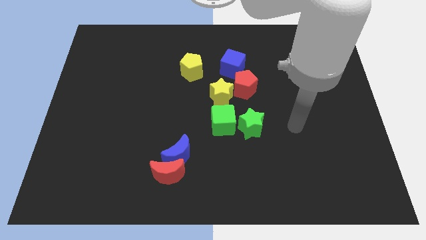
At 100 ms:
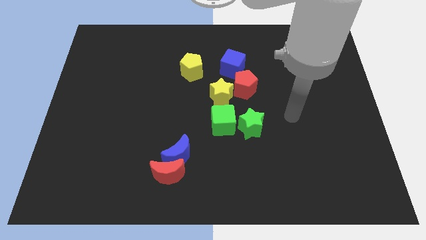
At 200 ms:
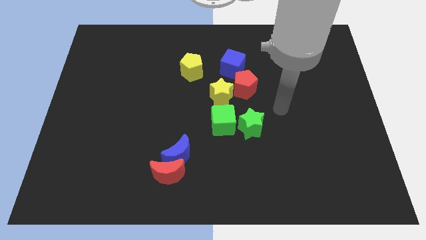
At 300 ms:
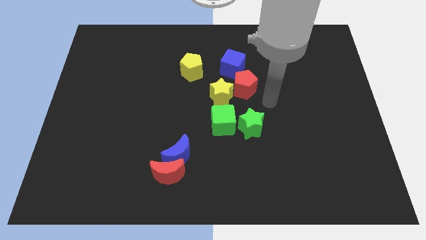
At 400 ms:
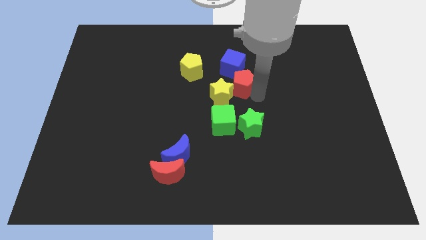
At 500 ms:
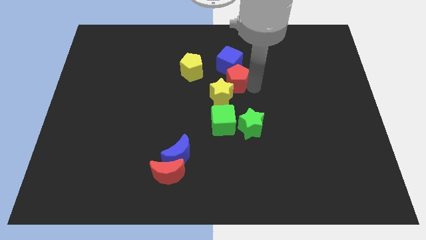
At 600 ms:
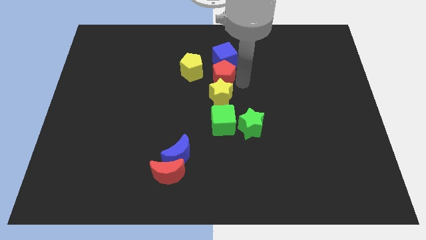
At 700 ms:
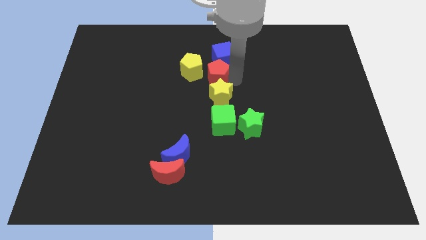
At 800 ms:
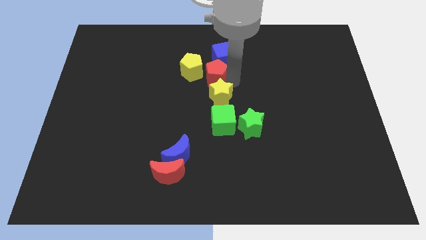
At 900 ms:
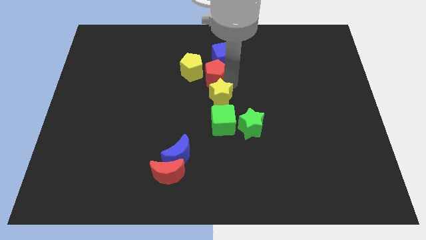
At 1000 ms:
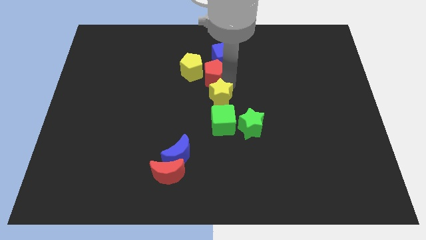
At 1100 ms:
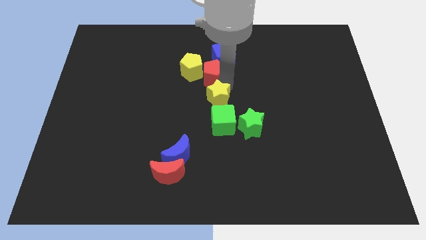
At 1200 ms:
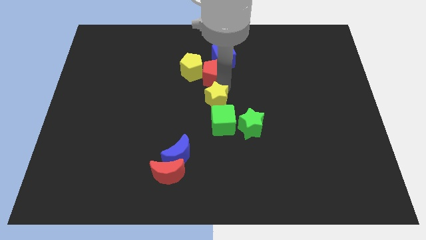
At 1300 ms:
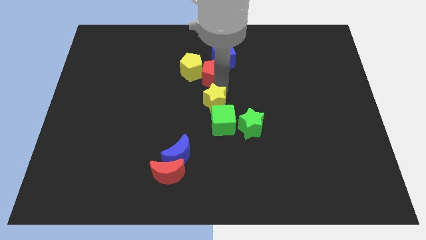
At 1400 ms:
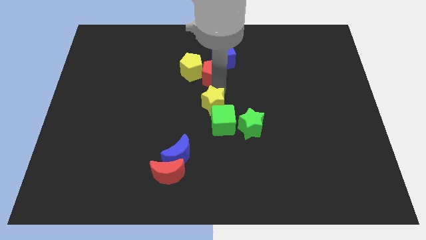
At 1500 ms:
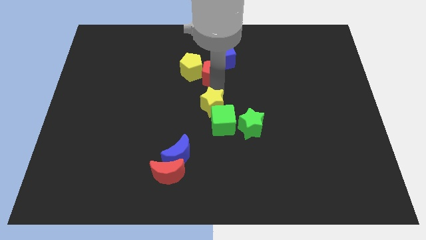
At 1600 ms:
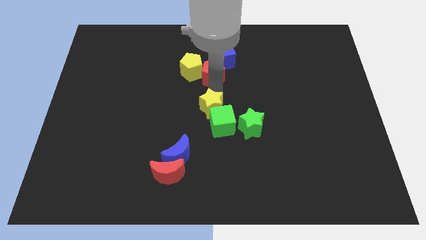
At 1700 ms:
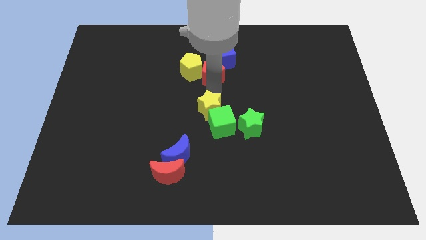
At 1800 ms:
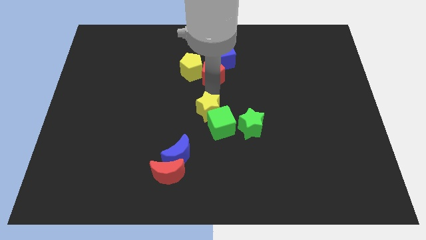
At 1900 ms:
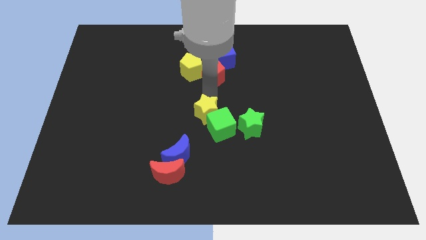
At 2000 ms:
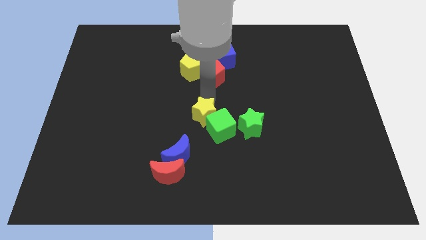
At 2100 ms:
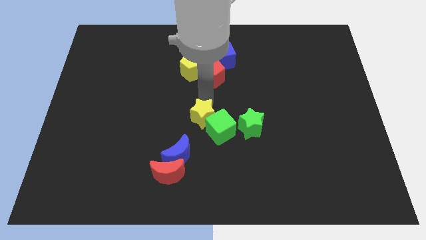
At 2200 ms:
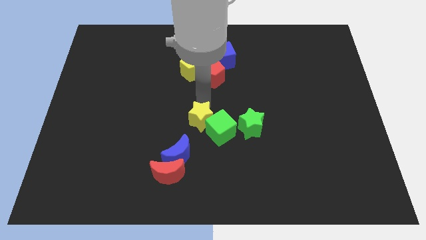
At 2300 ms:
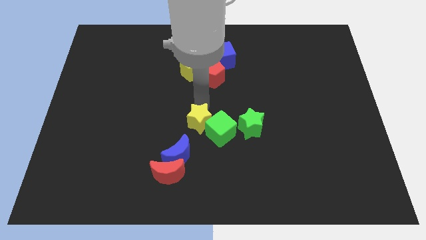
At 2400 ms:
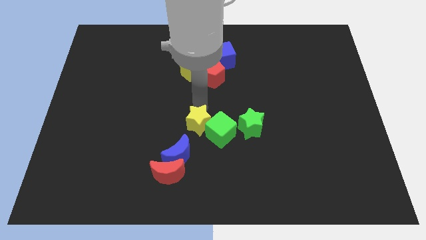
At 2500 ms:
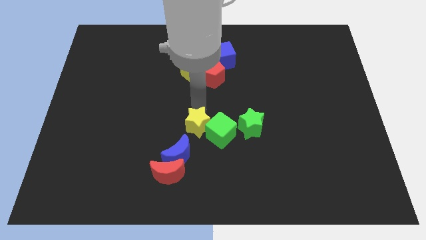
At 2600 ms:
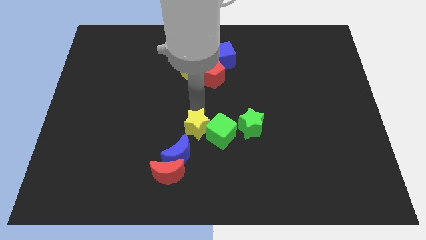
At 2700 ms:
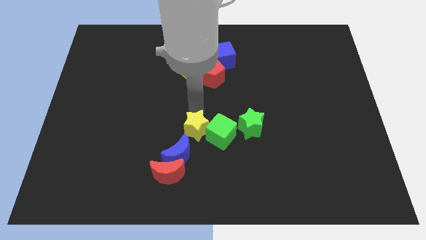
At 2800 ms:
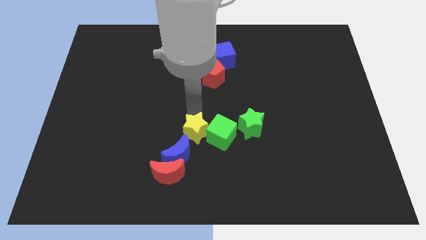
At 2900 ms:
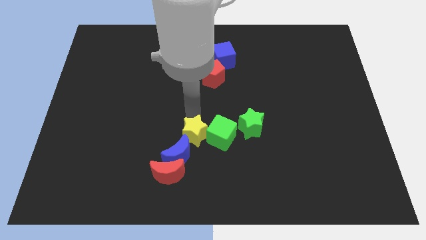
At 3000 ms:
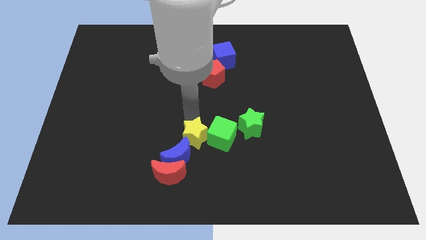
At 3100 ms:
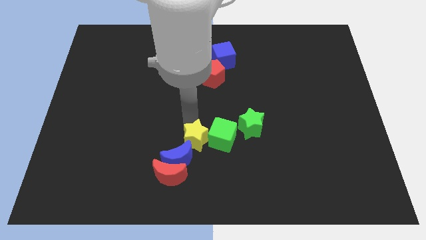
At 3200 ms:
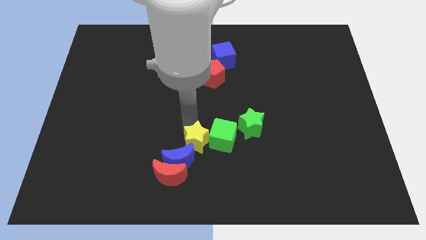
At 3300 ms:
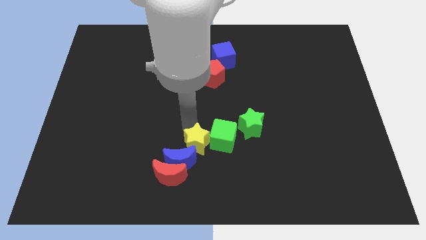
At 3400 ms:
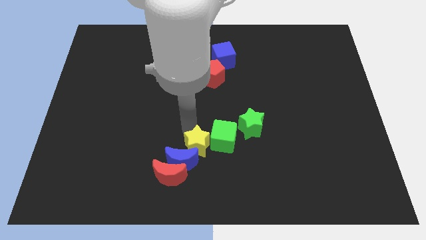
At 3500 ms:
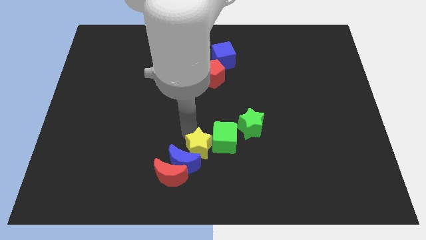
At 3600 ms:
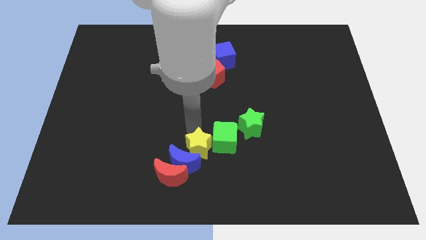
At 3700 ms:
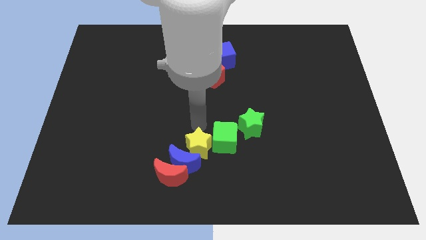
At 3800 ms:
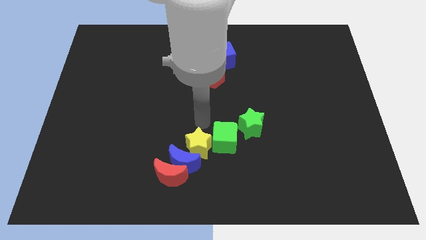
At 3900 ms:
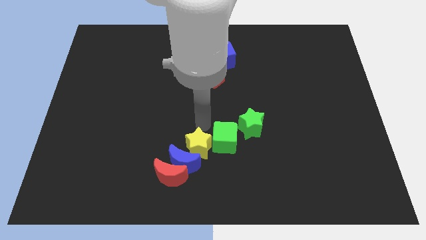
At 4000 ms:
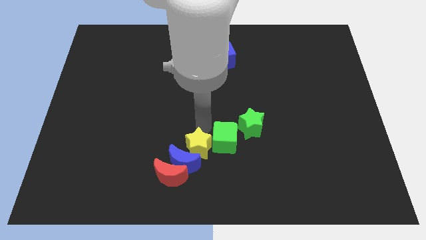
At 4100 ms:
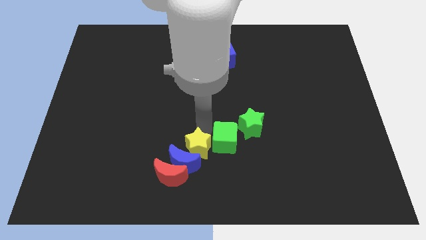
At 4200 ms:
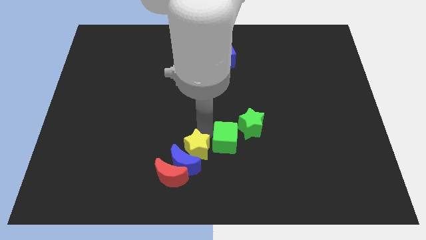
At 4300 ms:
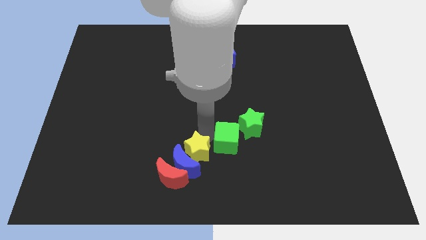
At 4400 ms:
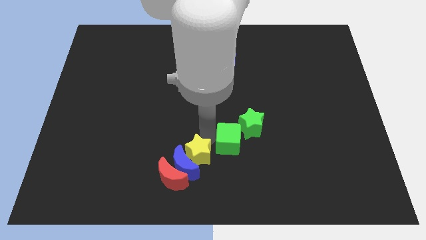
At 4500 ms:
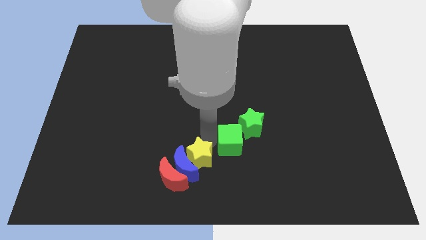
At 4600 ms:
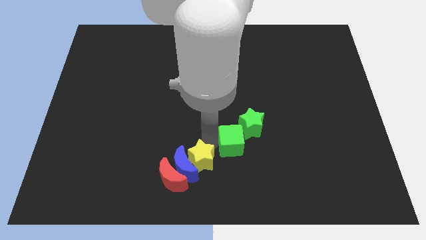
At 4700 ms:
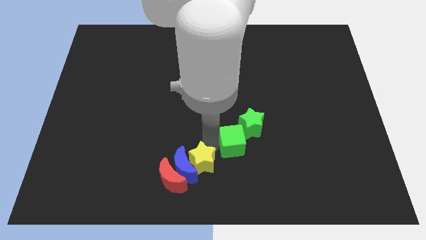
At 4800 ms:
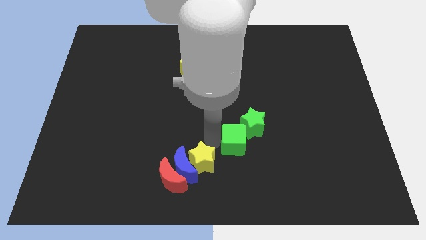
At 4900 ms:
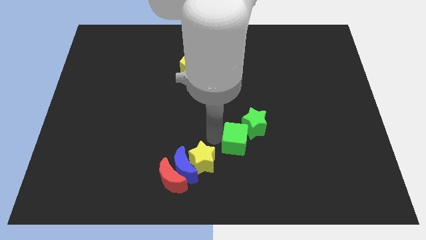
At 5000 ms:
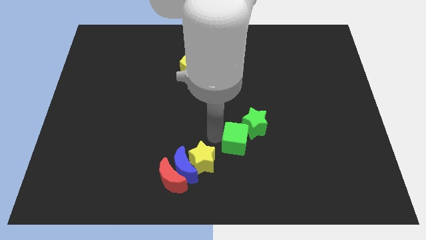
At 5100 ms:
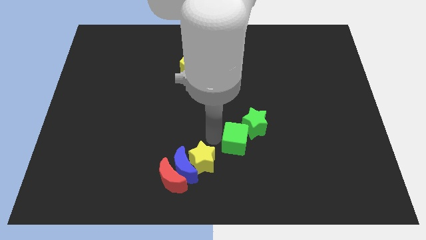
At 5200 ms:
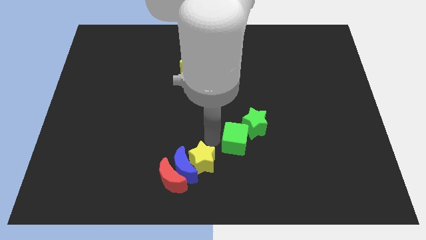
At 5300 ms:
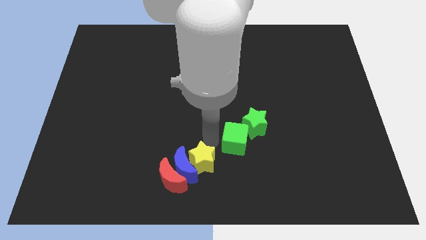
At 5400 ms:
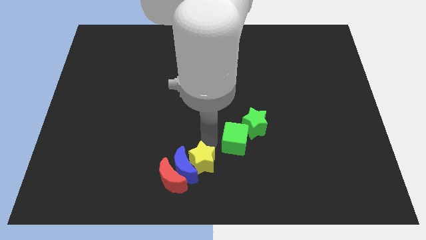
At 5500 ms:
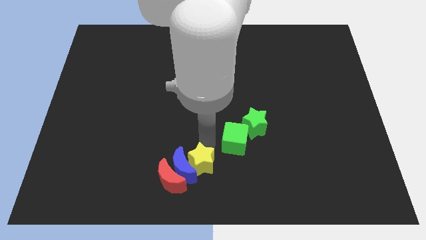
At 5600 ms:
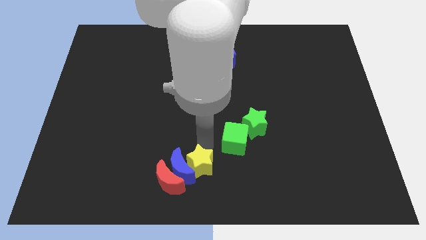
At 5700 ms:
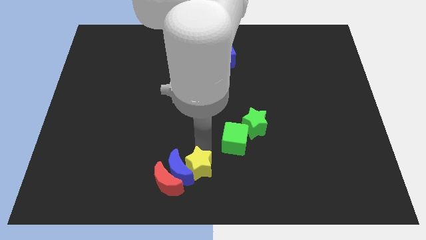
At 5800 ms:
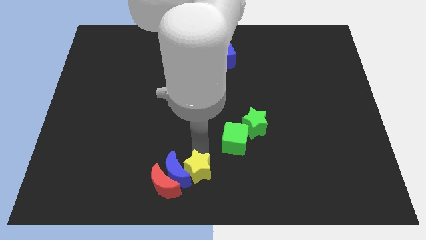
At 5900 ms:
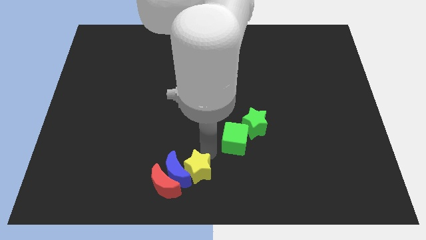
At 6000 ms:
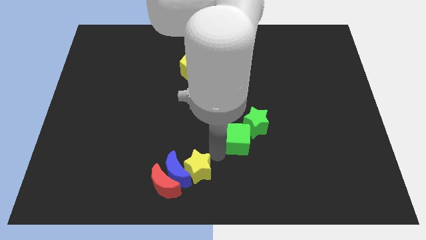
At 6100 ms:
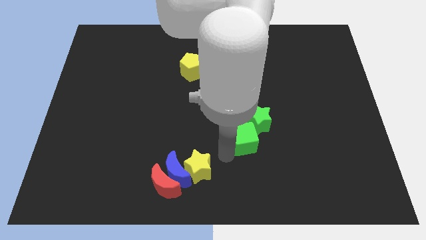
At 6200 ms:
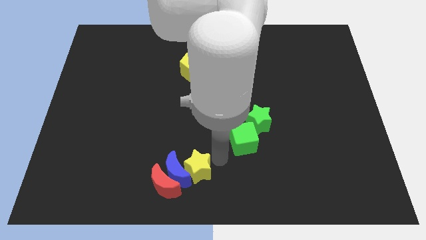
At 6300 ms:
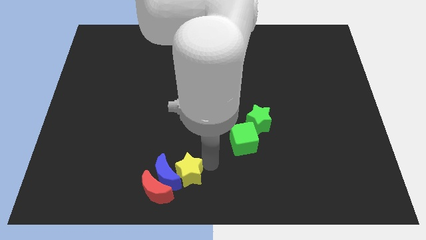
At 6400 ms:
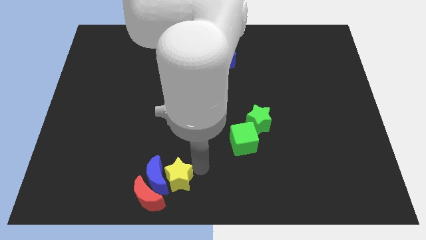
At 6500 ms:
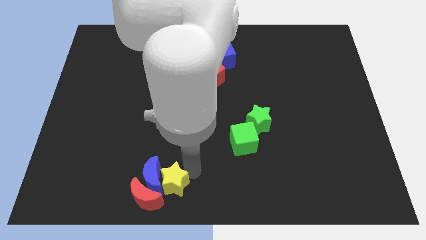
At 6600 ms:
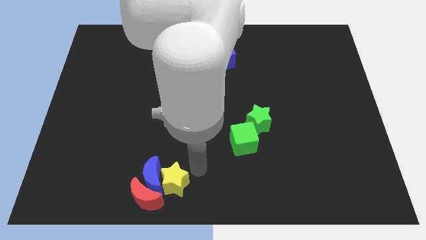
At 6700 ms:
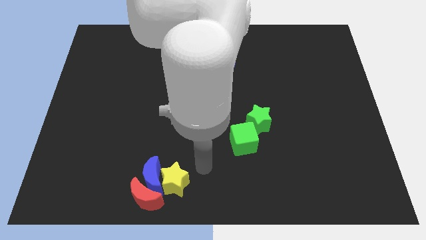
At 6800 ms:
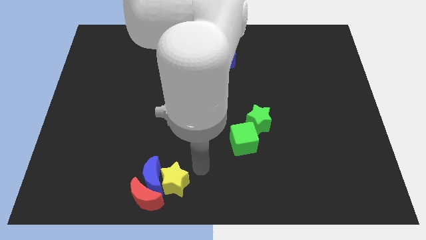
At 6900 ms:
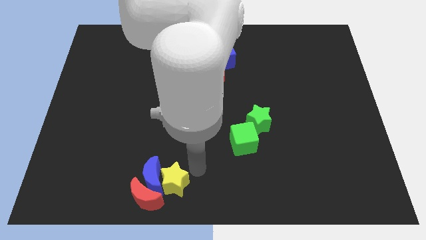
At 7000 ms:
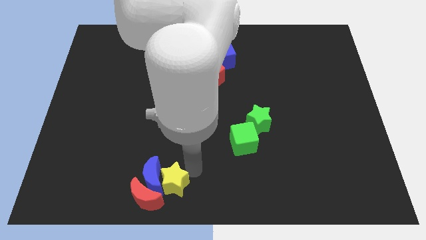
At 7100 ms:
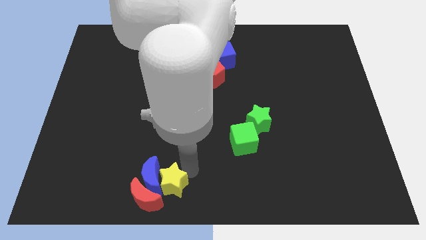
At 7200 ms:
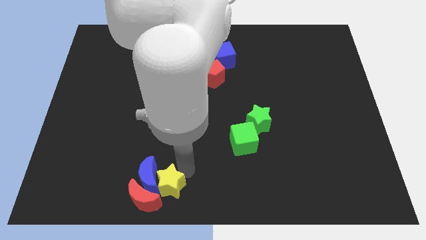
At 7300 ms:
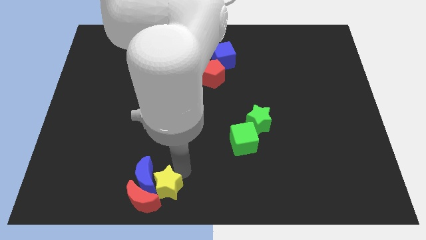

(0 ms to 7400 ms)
slide the yellow star close to the red moon
